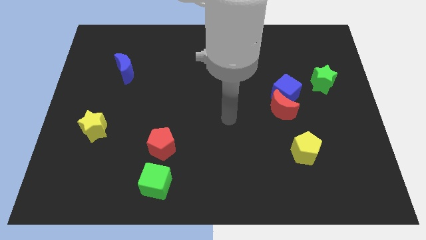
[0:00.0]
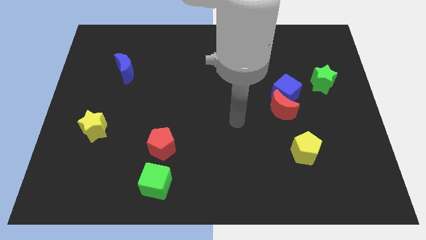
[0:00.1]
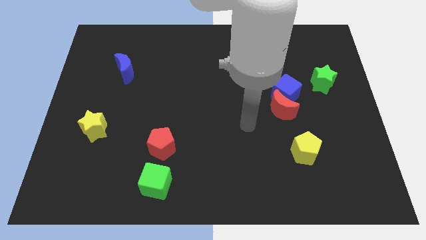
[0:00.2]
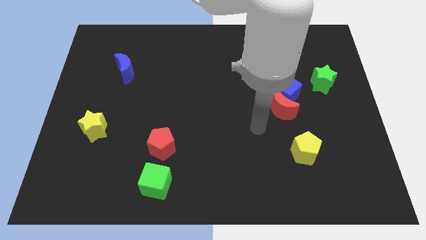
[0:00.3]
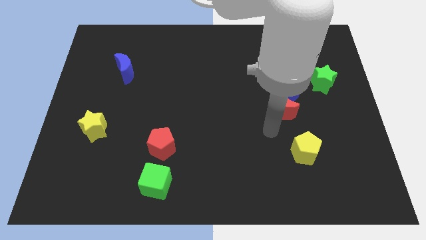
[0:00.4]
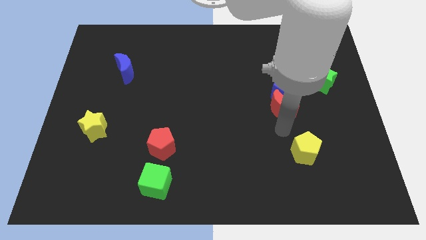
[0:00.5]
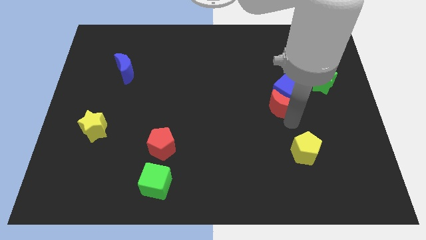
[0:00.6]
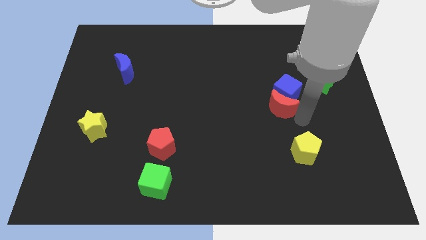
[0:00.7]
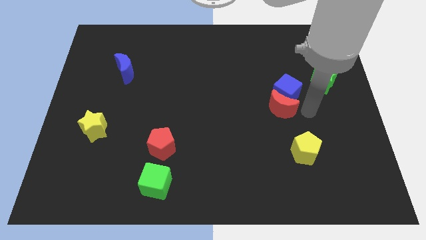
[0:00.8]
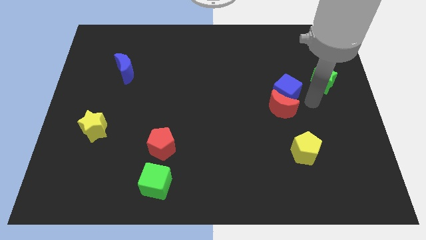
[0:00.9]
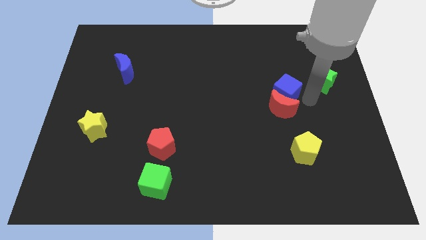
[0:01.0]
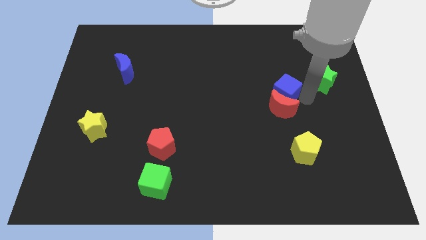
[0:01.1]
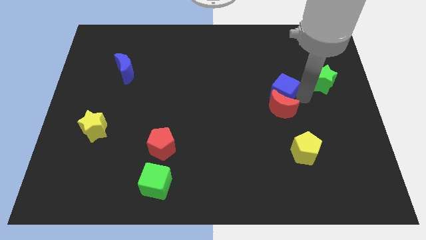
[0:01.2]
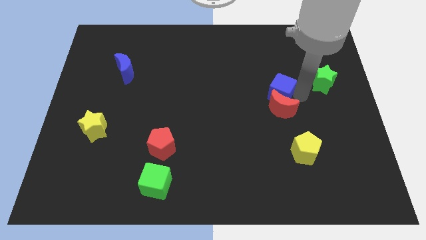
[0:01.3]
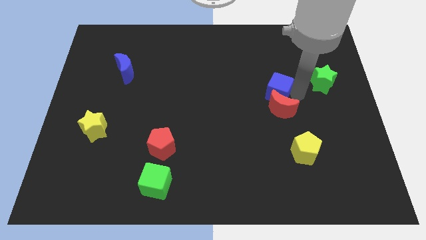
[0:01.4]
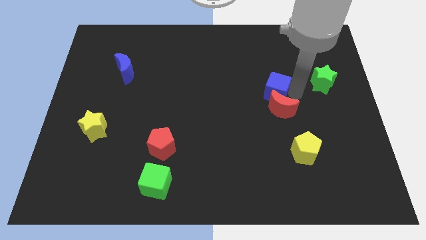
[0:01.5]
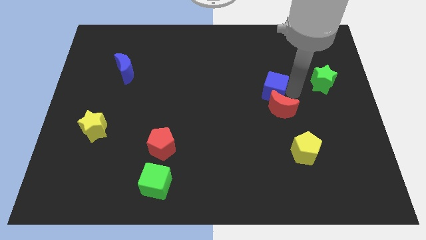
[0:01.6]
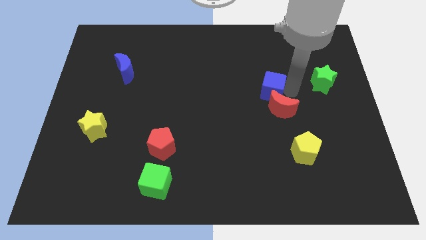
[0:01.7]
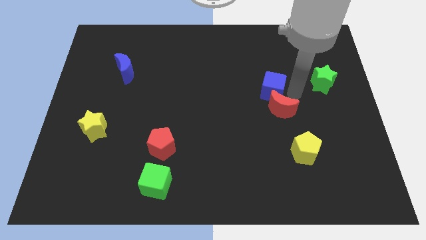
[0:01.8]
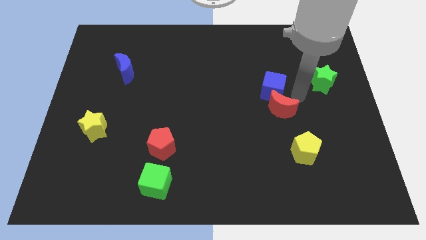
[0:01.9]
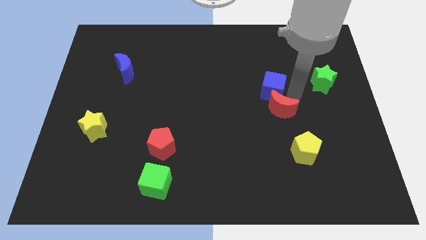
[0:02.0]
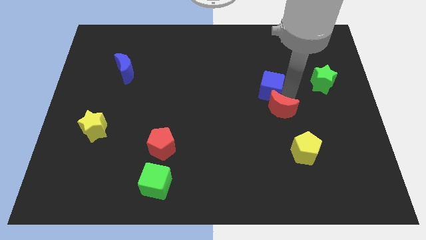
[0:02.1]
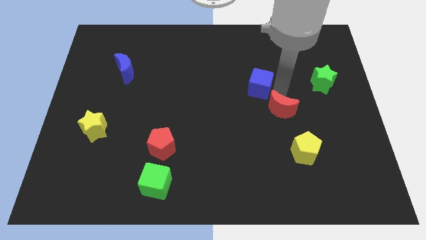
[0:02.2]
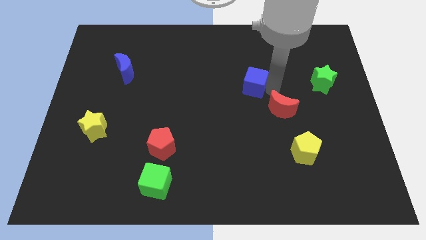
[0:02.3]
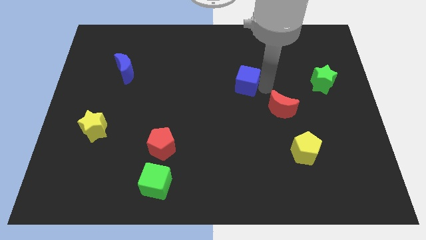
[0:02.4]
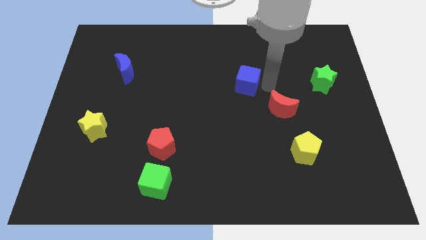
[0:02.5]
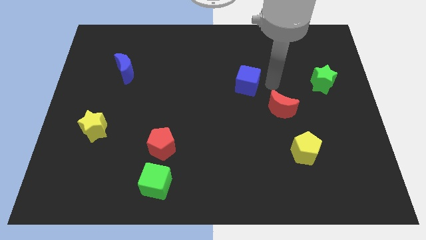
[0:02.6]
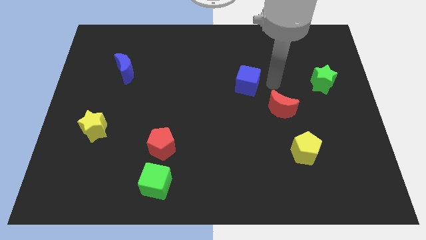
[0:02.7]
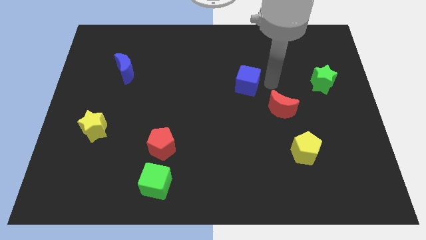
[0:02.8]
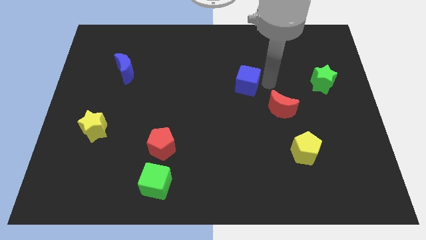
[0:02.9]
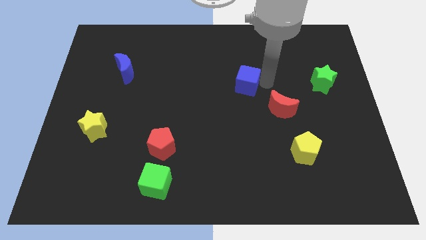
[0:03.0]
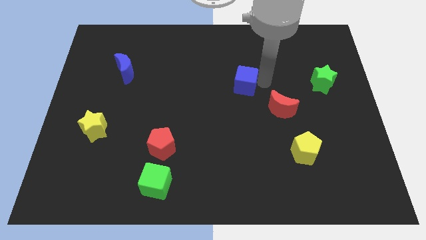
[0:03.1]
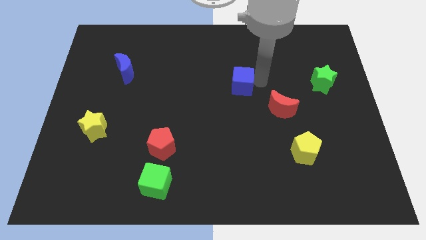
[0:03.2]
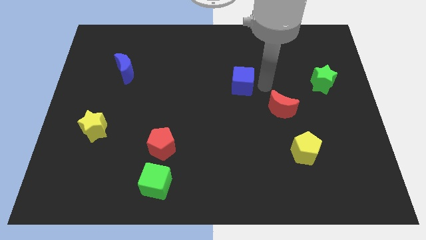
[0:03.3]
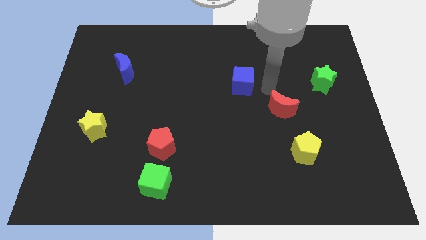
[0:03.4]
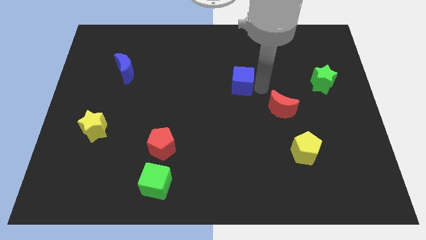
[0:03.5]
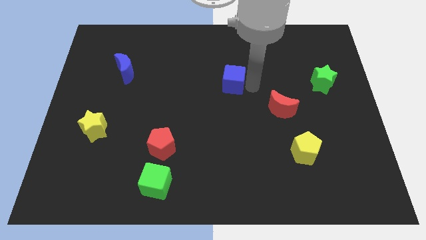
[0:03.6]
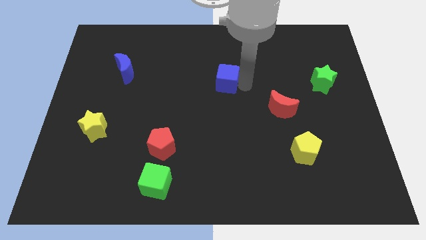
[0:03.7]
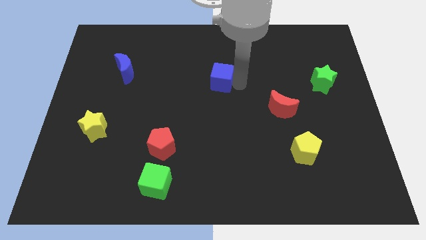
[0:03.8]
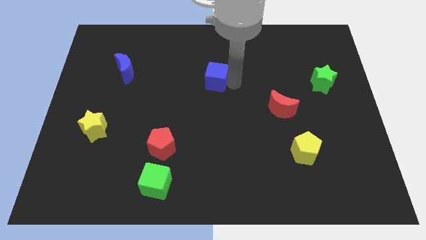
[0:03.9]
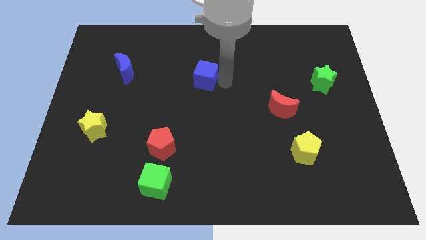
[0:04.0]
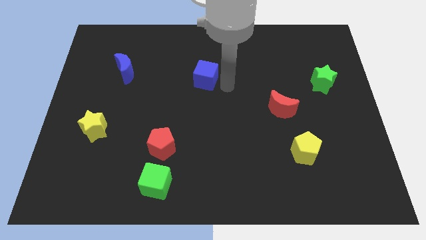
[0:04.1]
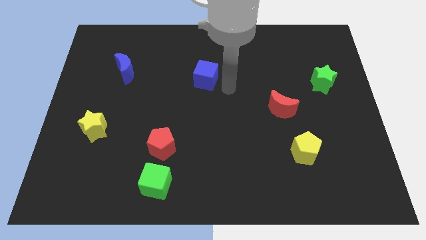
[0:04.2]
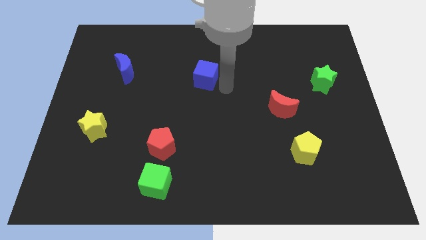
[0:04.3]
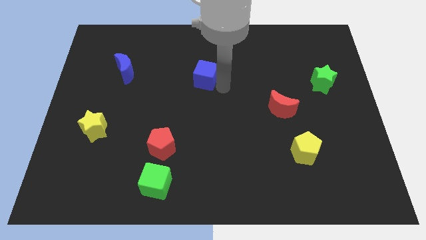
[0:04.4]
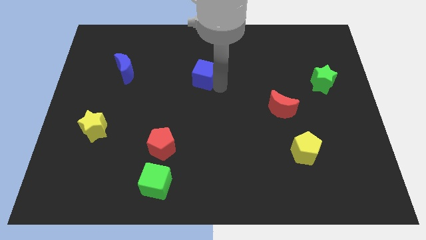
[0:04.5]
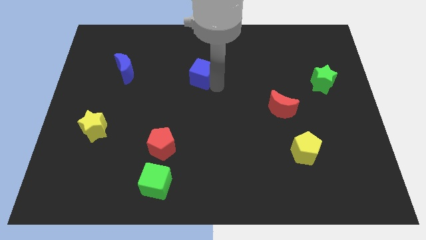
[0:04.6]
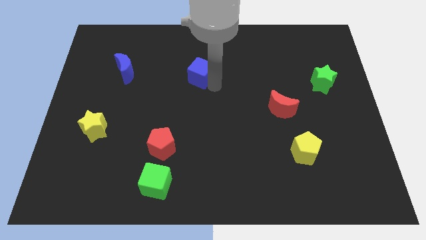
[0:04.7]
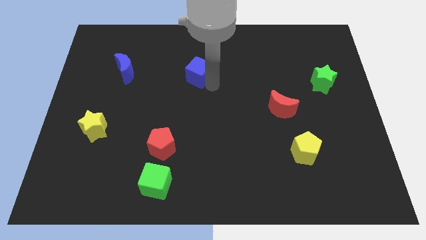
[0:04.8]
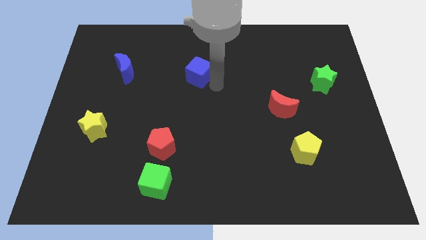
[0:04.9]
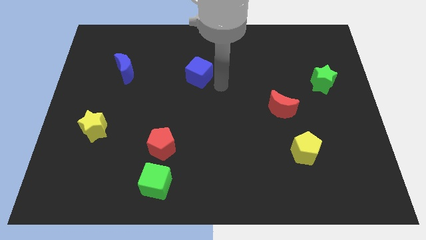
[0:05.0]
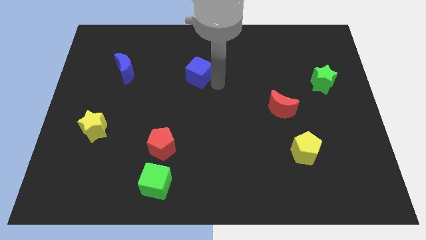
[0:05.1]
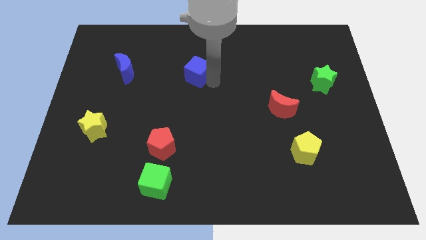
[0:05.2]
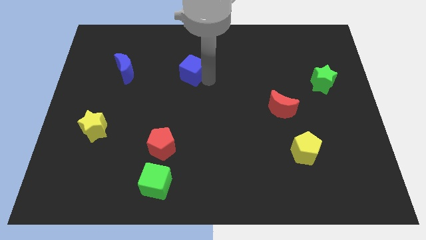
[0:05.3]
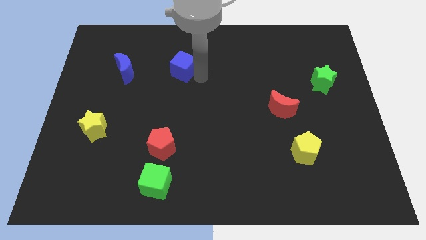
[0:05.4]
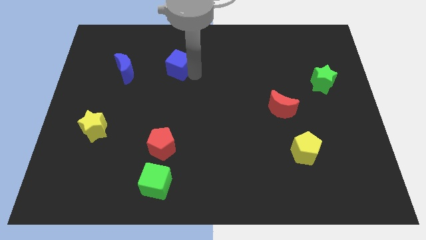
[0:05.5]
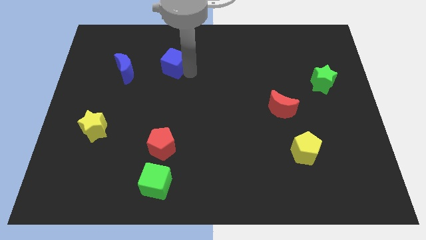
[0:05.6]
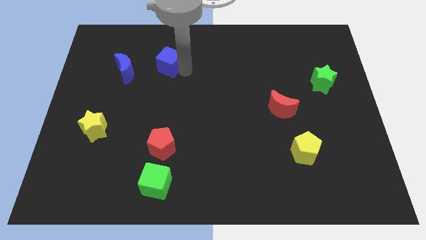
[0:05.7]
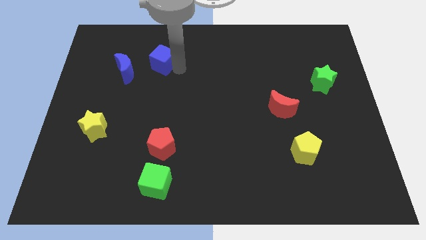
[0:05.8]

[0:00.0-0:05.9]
put the blue cube to the top right of the blue moon

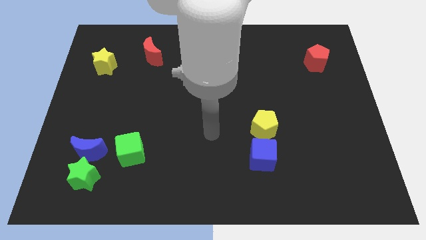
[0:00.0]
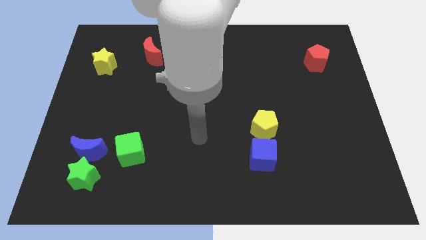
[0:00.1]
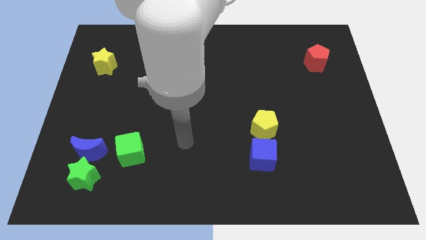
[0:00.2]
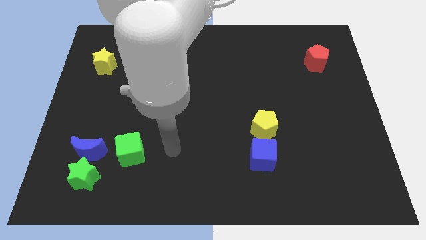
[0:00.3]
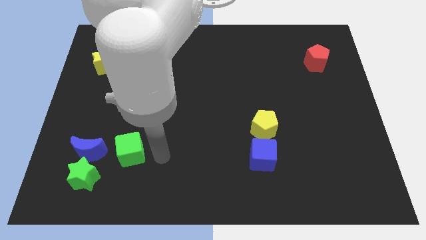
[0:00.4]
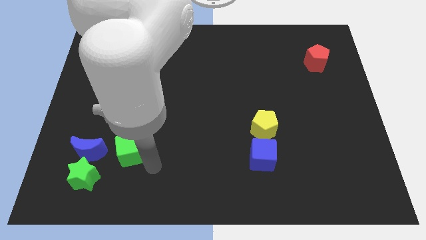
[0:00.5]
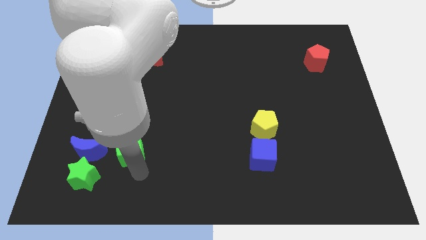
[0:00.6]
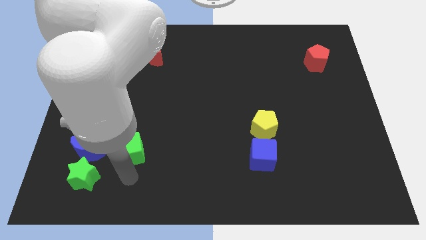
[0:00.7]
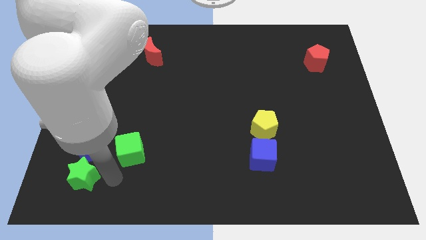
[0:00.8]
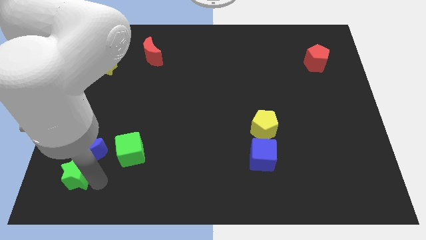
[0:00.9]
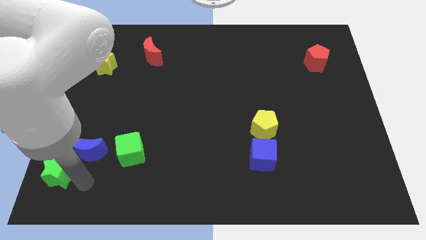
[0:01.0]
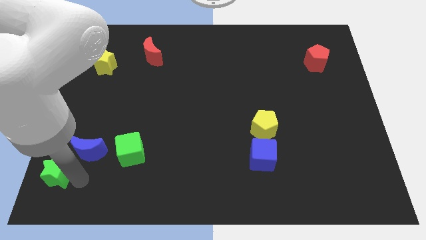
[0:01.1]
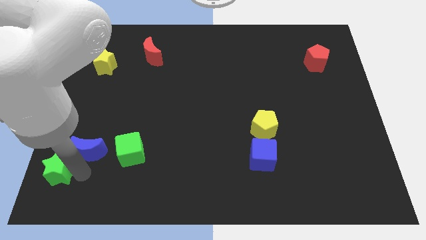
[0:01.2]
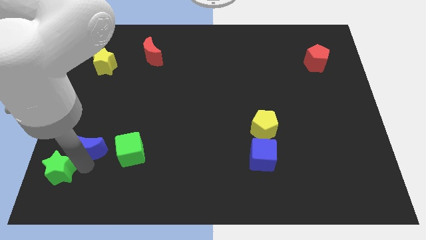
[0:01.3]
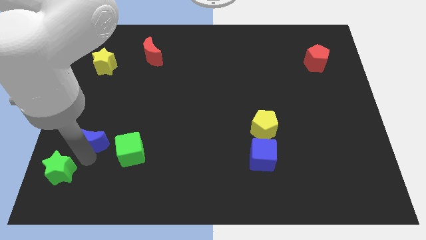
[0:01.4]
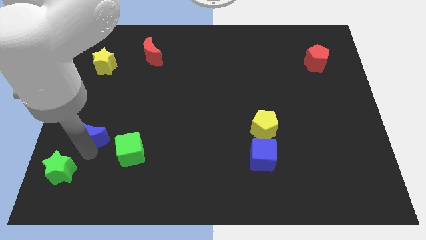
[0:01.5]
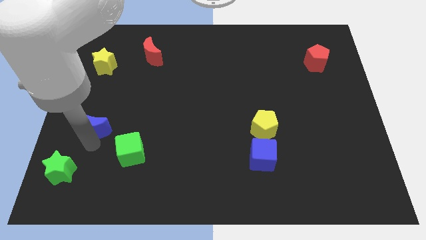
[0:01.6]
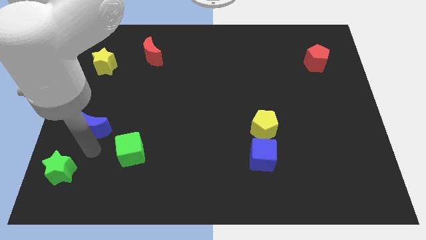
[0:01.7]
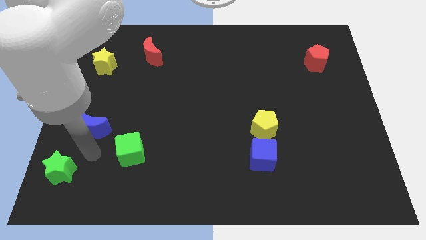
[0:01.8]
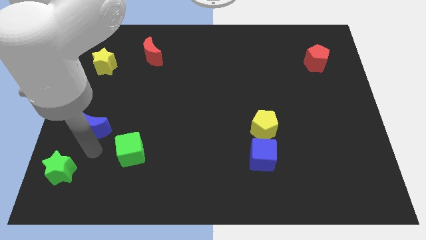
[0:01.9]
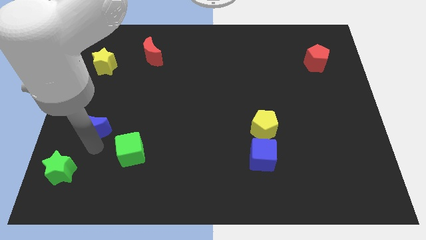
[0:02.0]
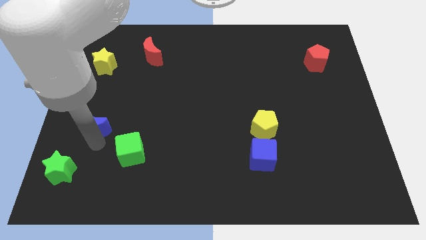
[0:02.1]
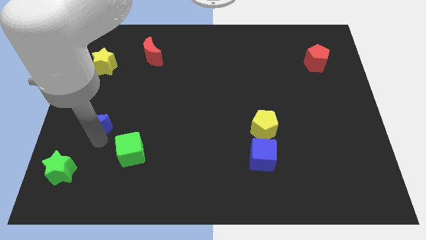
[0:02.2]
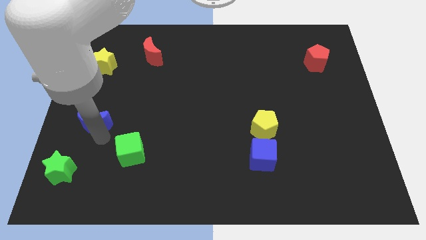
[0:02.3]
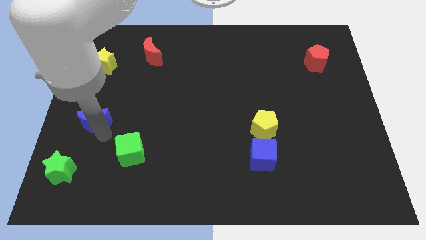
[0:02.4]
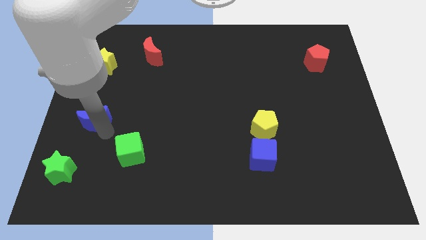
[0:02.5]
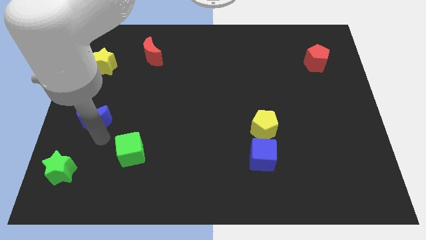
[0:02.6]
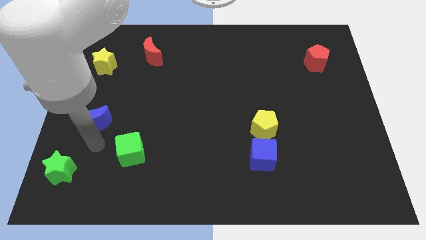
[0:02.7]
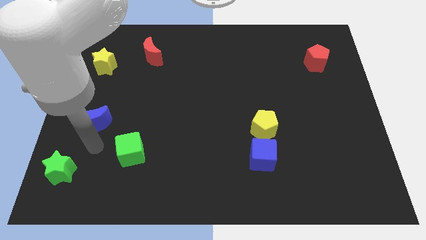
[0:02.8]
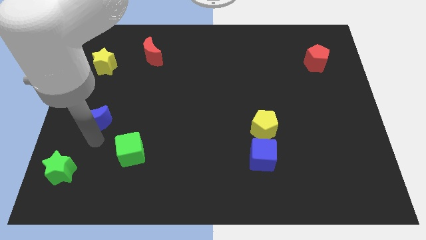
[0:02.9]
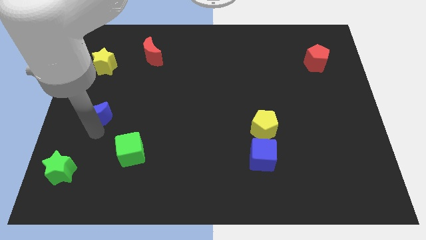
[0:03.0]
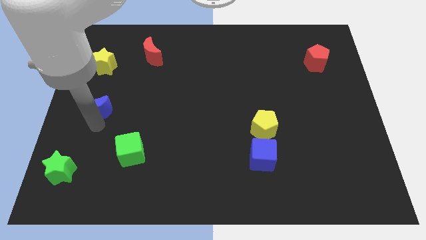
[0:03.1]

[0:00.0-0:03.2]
move the blue moon below the yellow star
